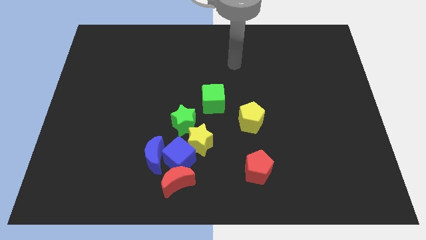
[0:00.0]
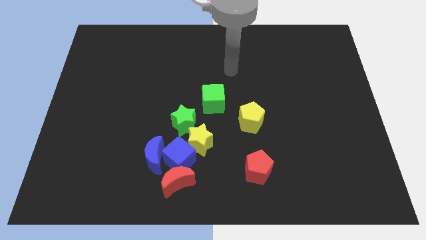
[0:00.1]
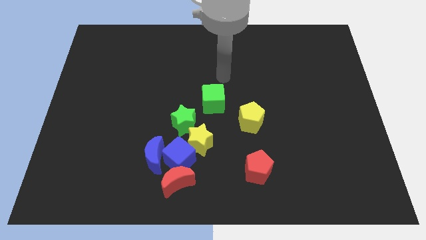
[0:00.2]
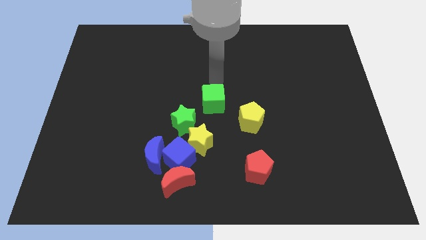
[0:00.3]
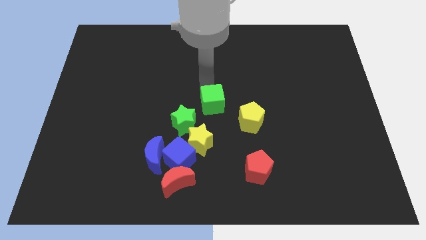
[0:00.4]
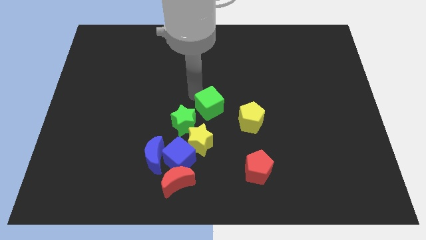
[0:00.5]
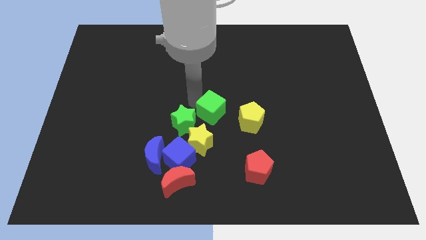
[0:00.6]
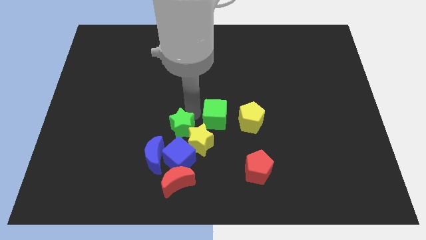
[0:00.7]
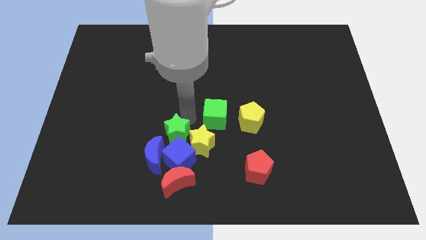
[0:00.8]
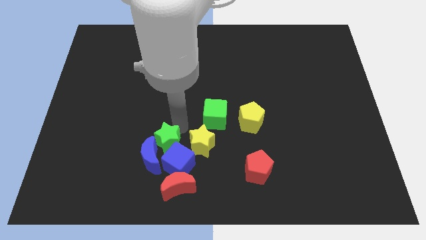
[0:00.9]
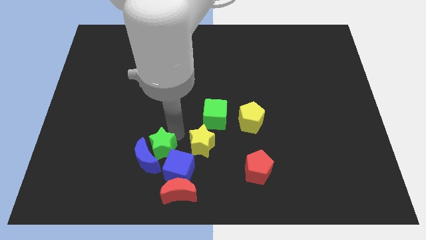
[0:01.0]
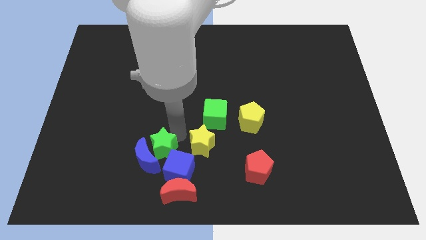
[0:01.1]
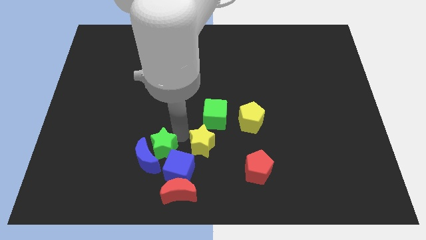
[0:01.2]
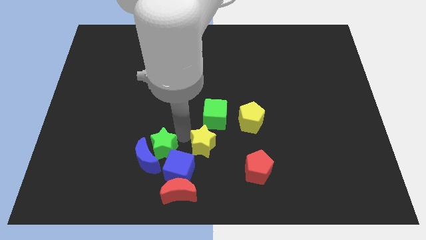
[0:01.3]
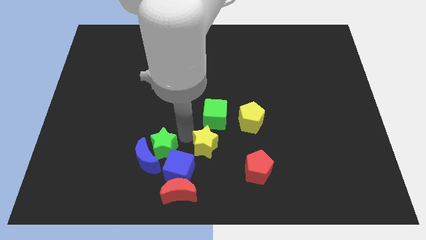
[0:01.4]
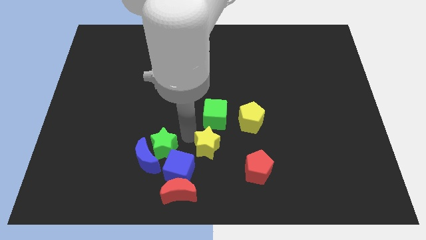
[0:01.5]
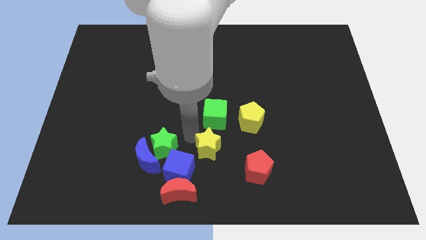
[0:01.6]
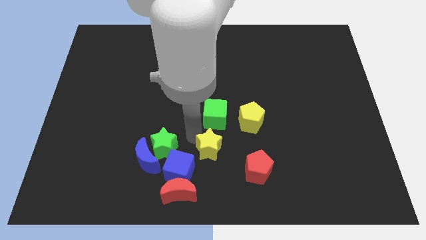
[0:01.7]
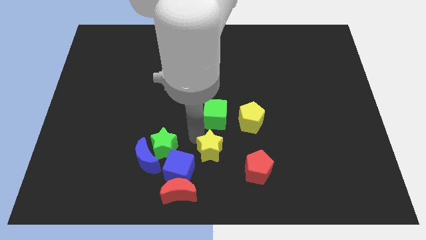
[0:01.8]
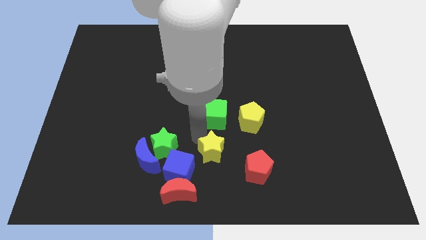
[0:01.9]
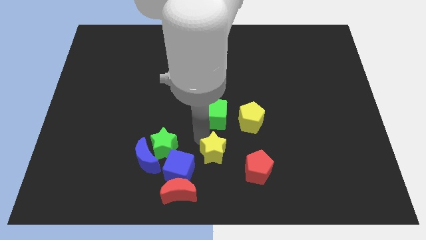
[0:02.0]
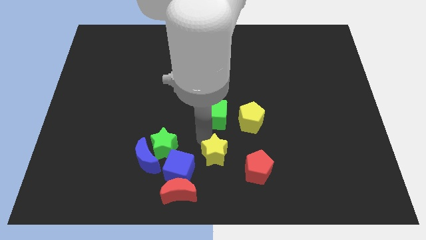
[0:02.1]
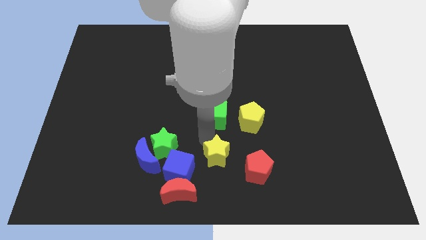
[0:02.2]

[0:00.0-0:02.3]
separate the yellow star from the blue cube and green star

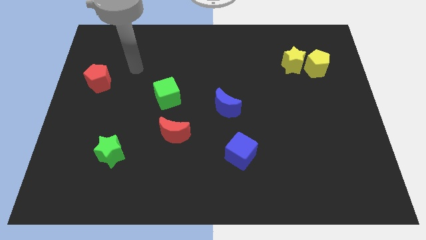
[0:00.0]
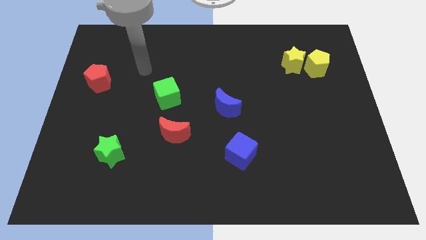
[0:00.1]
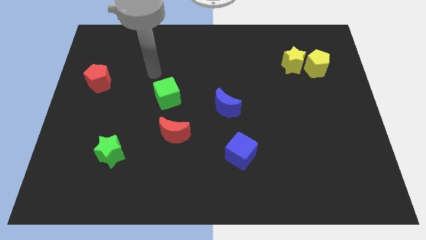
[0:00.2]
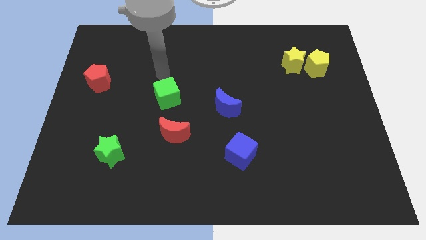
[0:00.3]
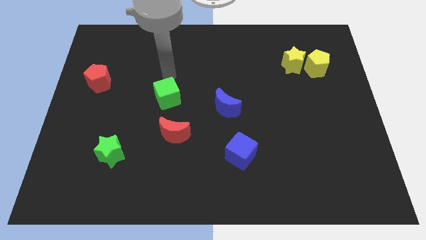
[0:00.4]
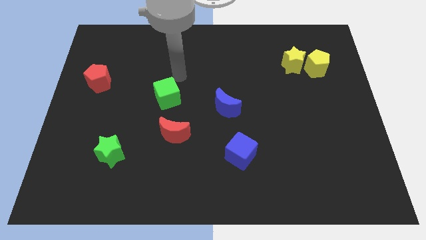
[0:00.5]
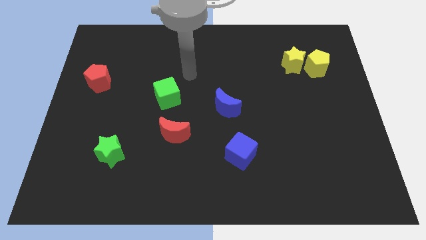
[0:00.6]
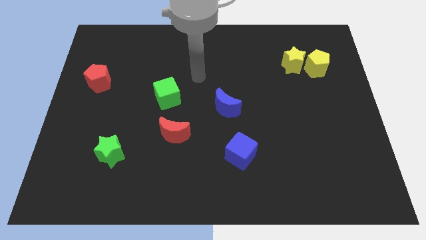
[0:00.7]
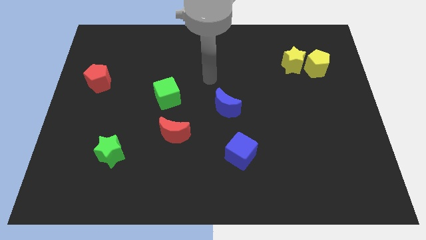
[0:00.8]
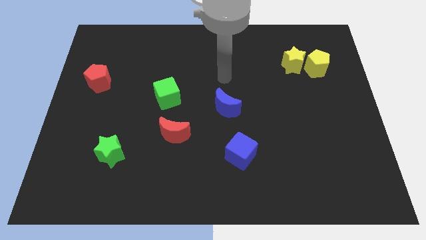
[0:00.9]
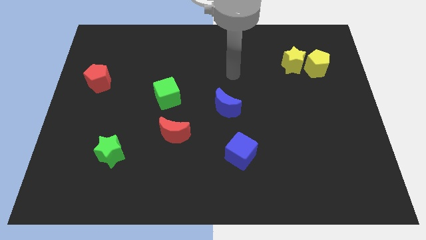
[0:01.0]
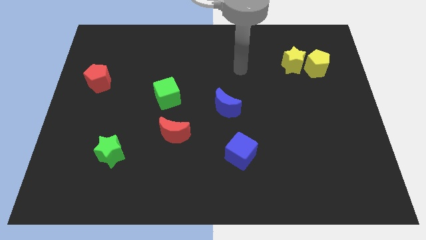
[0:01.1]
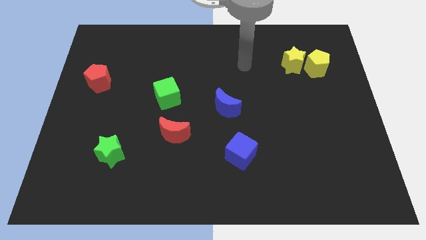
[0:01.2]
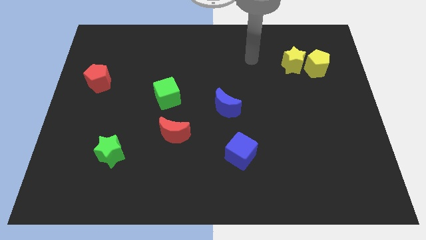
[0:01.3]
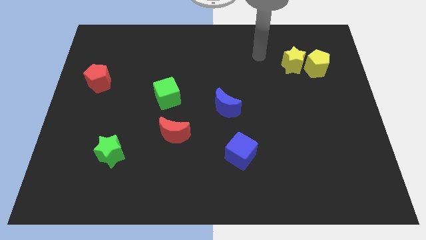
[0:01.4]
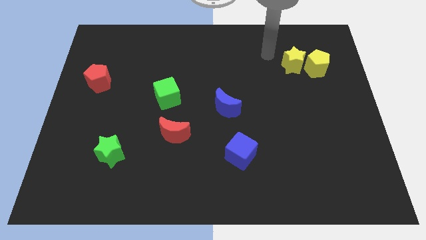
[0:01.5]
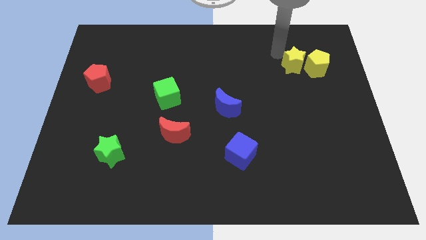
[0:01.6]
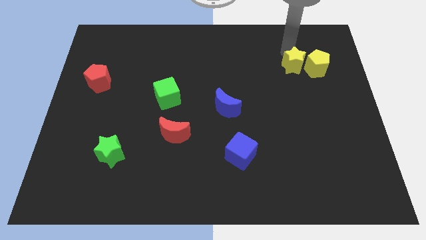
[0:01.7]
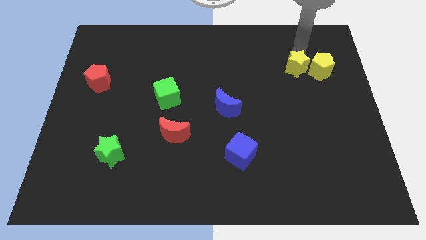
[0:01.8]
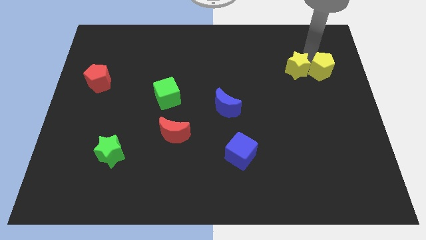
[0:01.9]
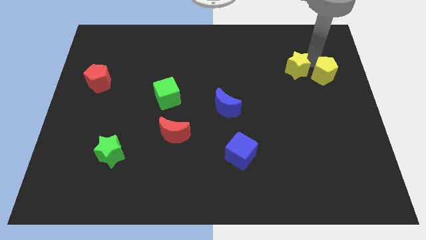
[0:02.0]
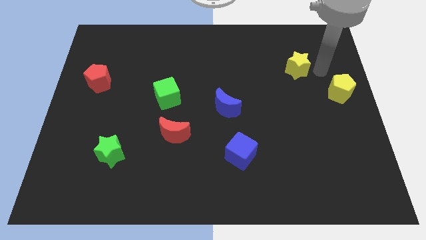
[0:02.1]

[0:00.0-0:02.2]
move the yellow star away from the yellow pentagon

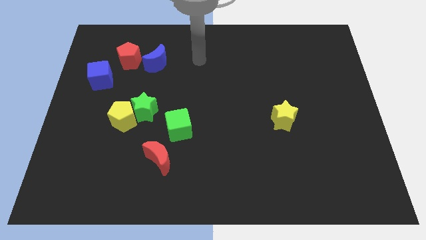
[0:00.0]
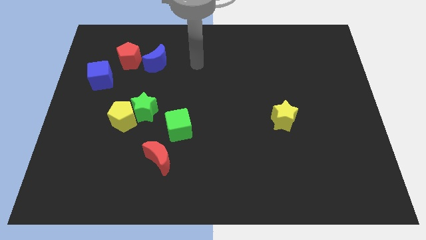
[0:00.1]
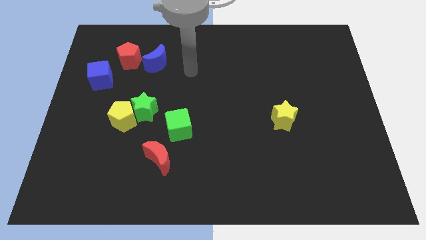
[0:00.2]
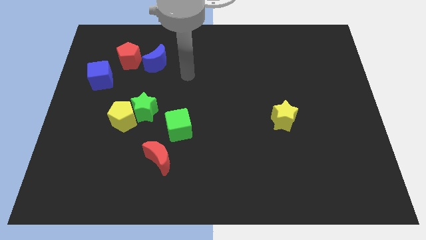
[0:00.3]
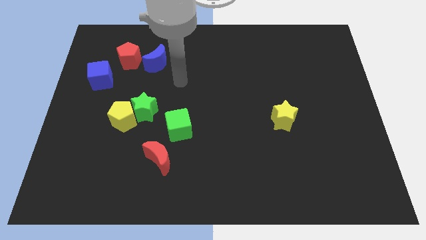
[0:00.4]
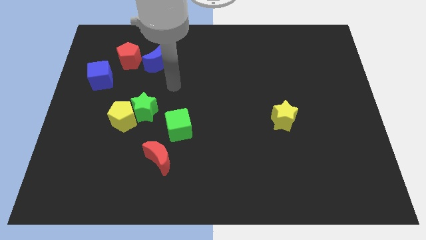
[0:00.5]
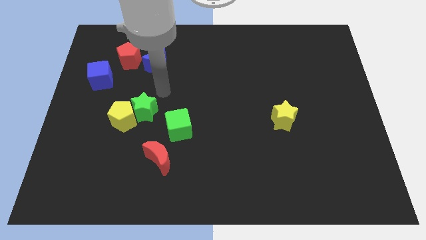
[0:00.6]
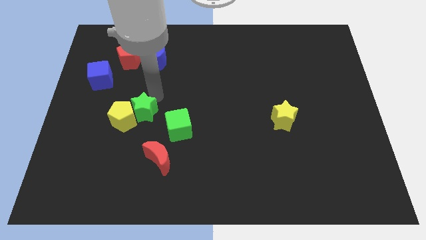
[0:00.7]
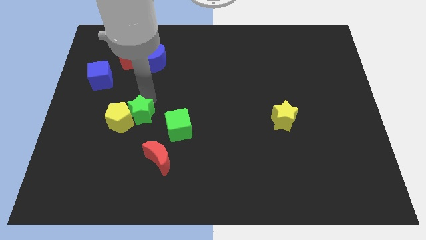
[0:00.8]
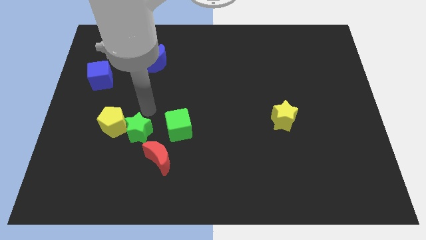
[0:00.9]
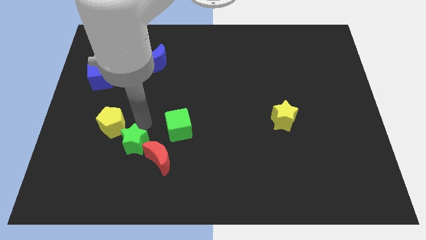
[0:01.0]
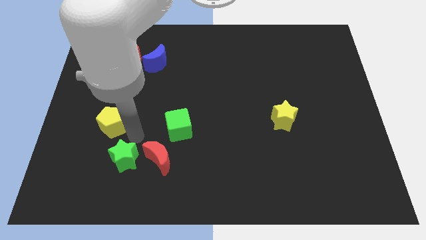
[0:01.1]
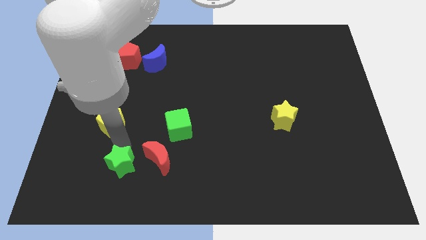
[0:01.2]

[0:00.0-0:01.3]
pull the yellow pentagon apart from the green star

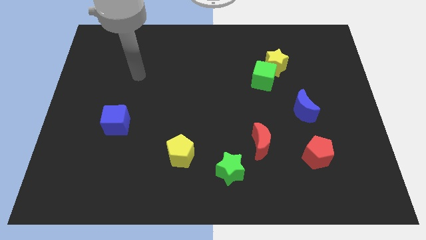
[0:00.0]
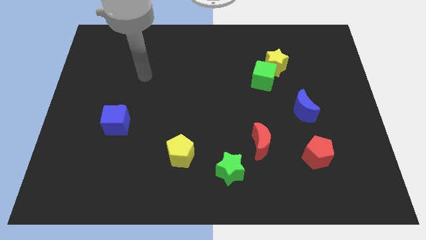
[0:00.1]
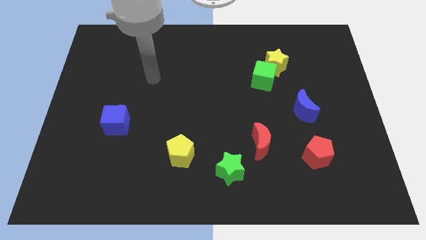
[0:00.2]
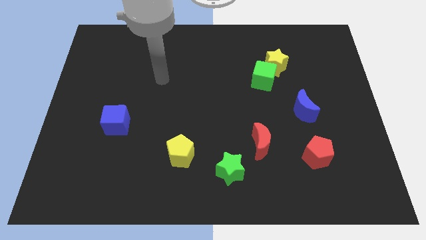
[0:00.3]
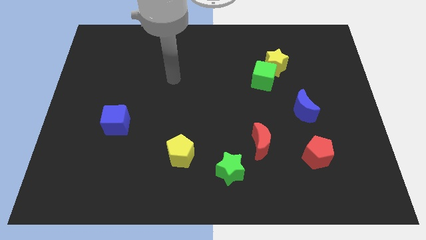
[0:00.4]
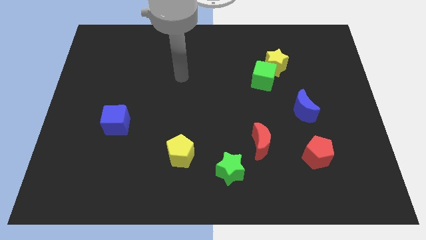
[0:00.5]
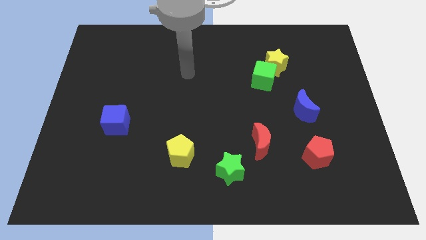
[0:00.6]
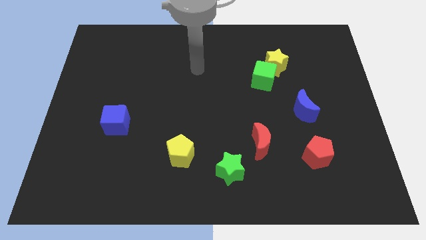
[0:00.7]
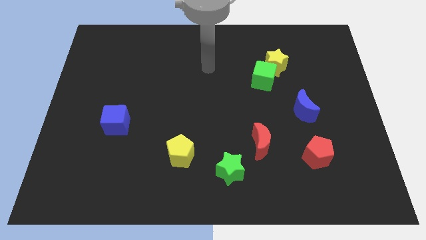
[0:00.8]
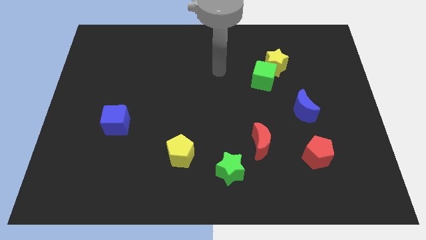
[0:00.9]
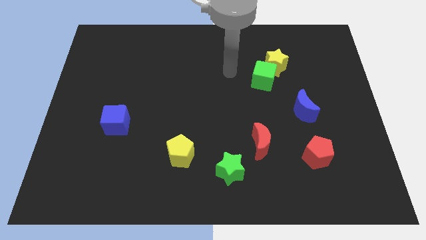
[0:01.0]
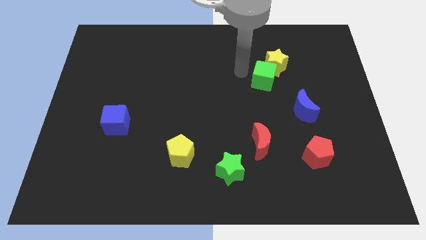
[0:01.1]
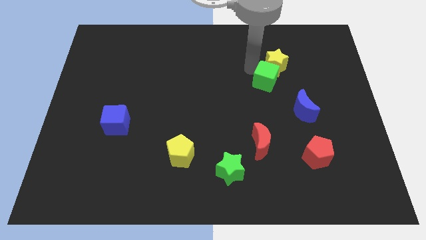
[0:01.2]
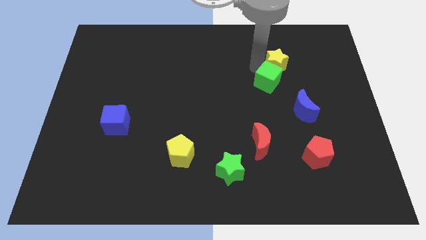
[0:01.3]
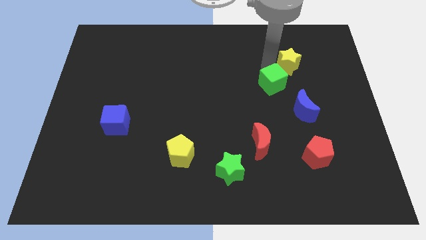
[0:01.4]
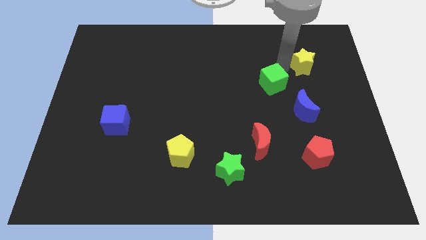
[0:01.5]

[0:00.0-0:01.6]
separate the green cube from the yellow star

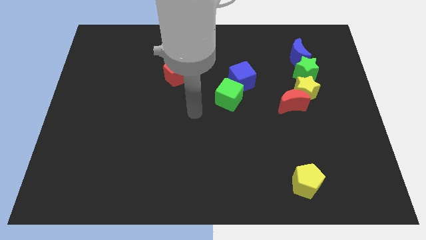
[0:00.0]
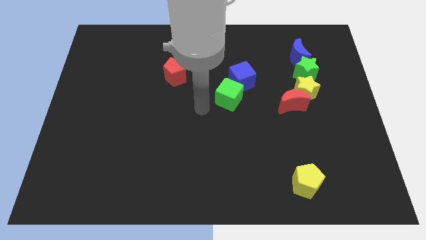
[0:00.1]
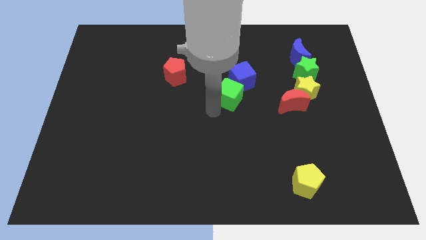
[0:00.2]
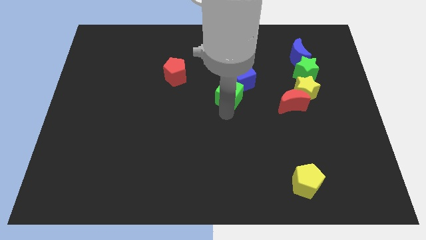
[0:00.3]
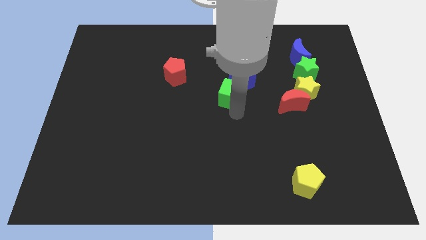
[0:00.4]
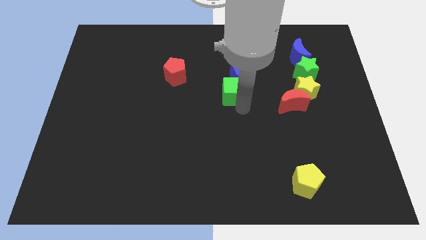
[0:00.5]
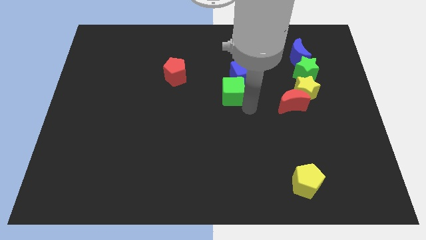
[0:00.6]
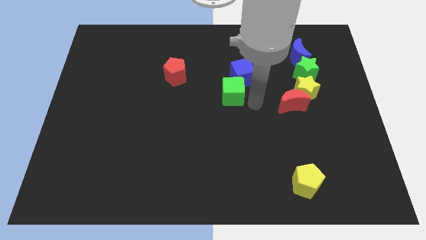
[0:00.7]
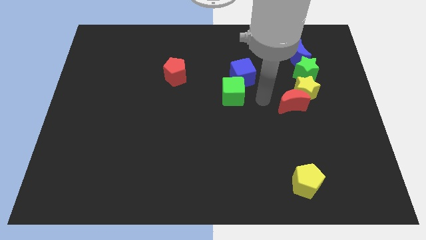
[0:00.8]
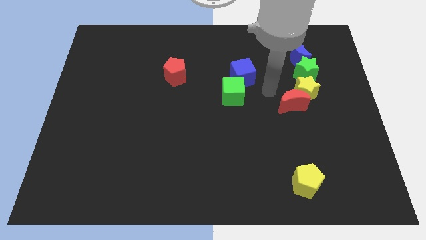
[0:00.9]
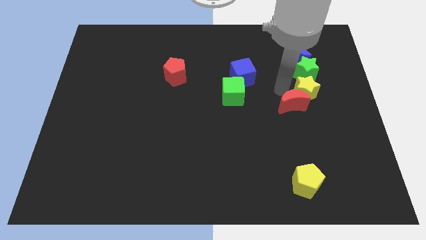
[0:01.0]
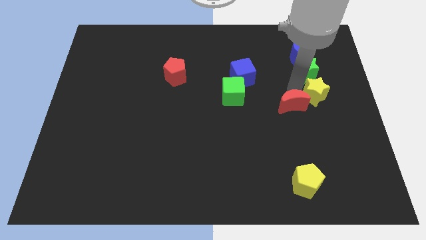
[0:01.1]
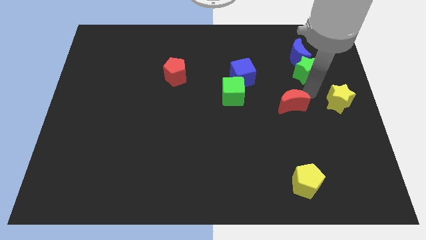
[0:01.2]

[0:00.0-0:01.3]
separate the red moon from the yellow star

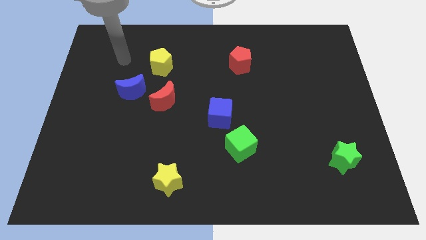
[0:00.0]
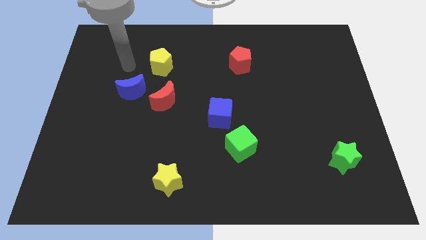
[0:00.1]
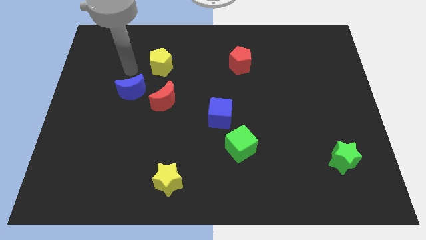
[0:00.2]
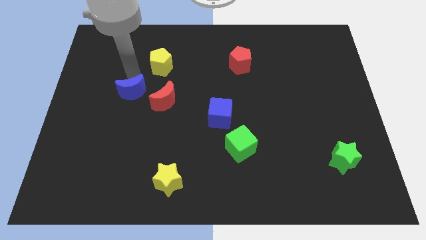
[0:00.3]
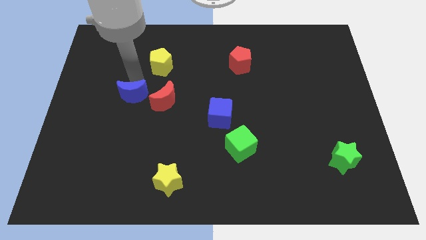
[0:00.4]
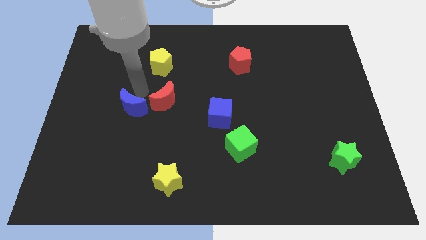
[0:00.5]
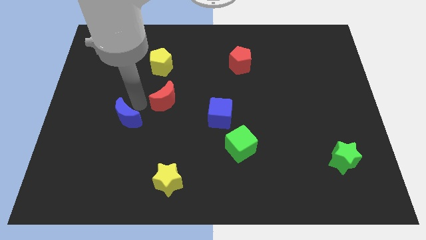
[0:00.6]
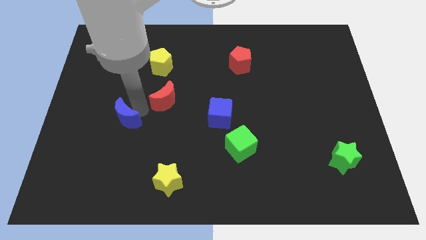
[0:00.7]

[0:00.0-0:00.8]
pull the red moon apart from the blue moon
